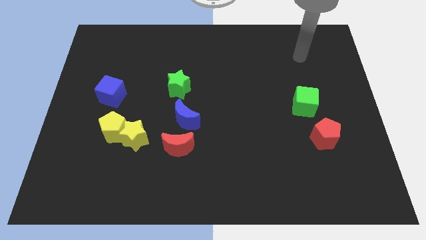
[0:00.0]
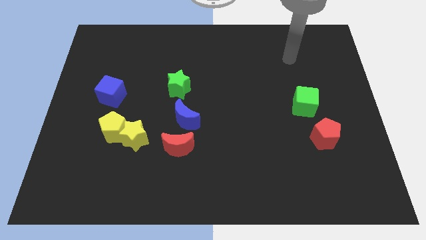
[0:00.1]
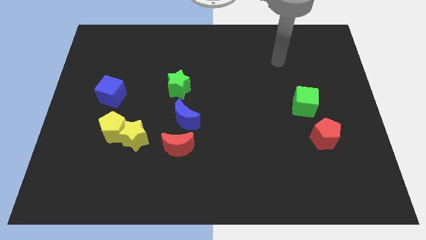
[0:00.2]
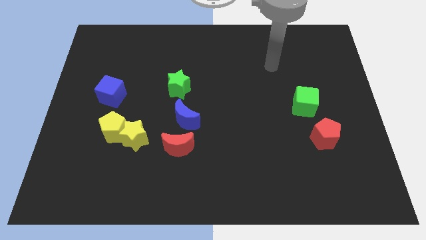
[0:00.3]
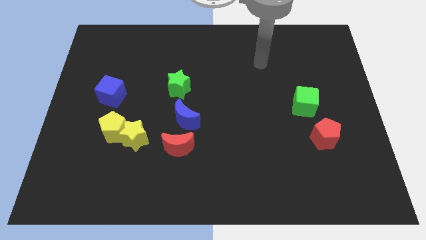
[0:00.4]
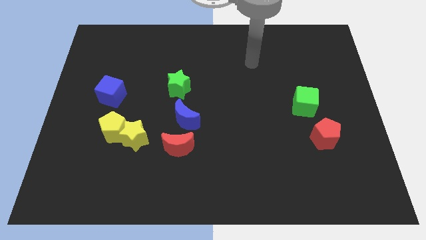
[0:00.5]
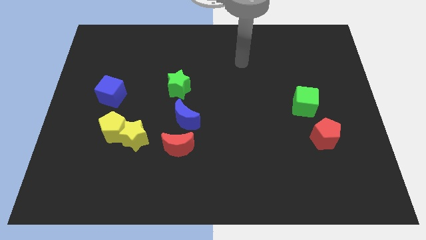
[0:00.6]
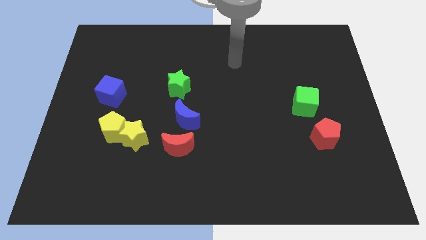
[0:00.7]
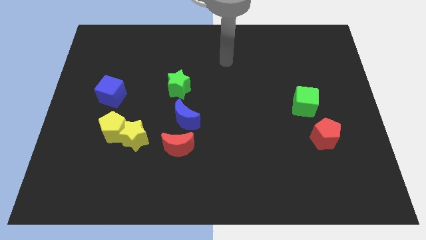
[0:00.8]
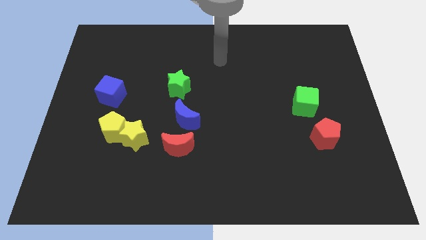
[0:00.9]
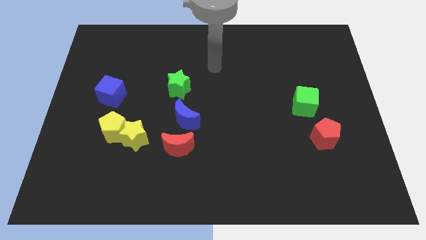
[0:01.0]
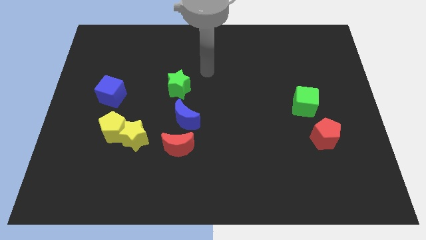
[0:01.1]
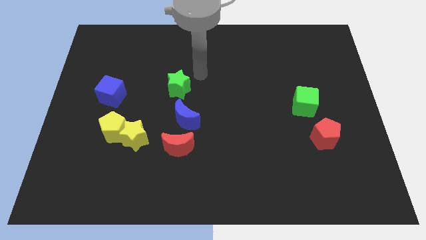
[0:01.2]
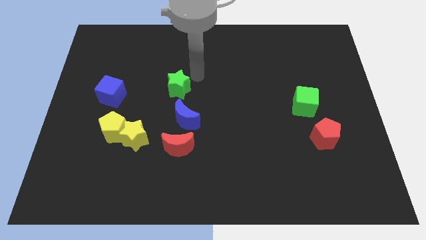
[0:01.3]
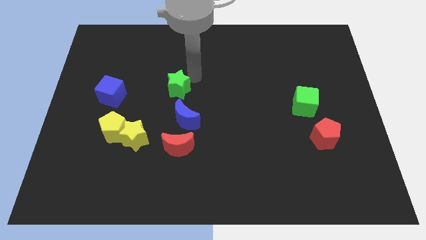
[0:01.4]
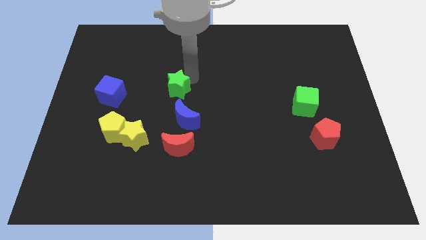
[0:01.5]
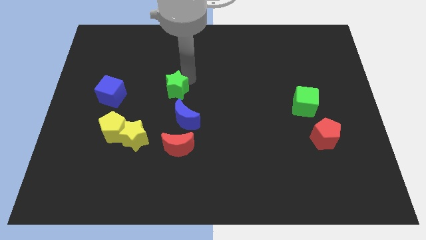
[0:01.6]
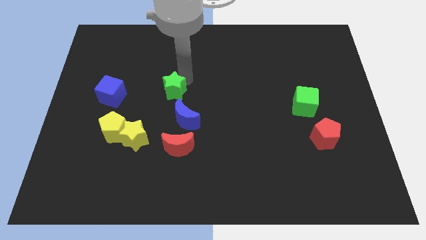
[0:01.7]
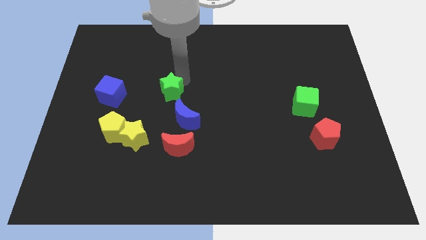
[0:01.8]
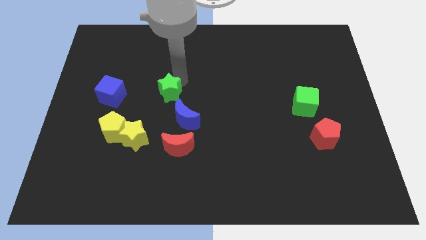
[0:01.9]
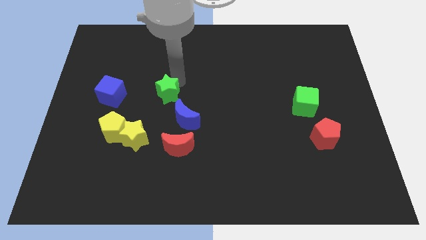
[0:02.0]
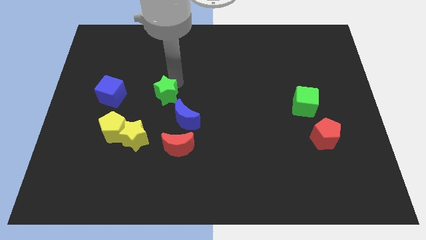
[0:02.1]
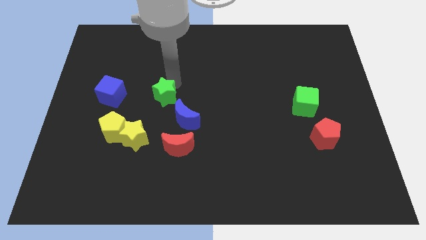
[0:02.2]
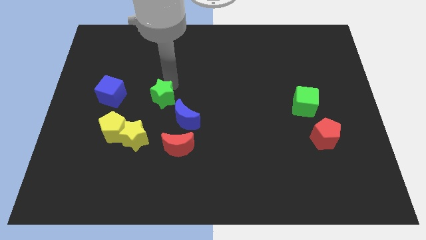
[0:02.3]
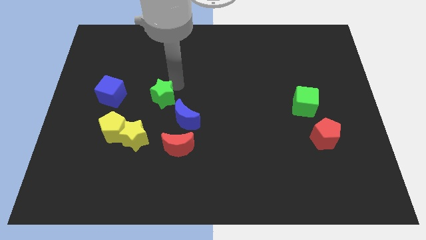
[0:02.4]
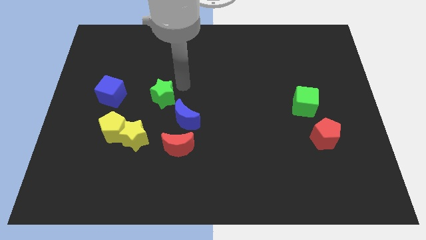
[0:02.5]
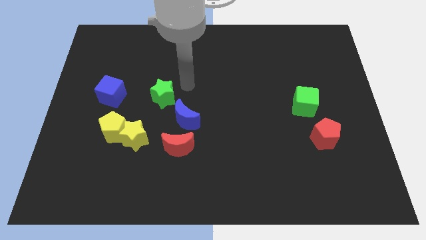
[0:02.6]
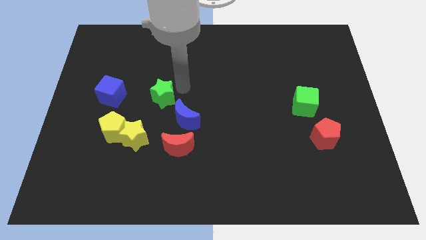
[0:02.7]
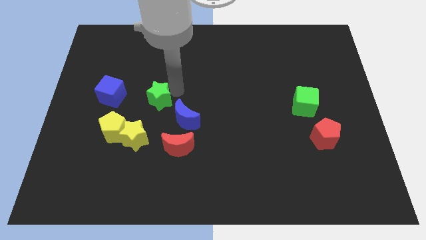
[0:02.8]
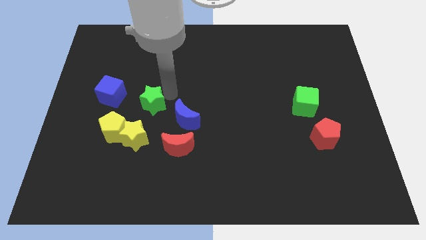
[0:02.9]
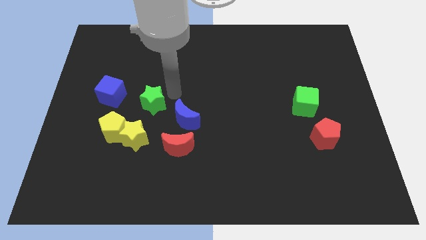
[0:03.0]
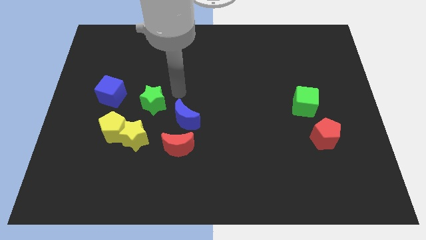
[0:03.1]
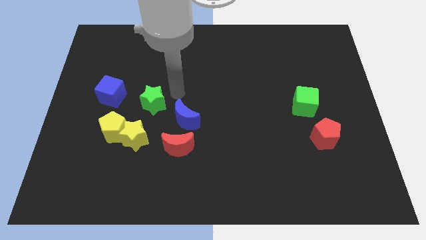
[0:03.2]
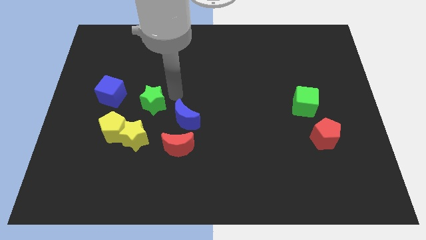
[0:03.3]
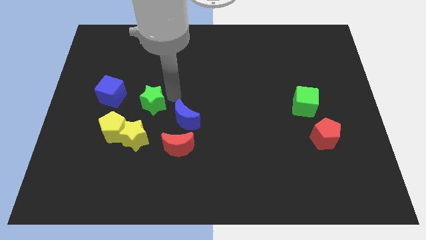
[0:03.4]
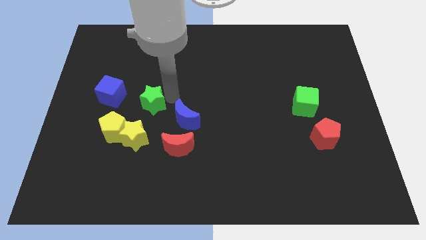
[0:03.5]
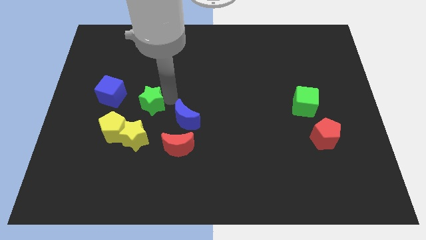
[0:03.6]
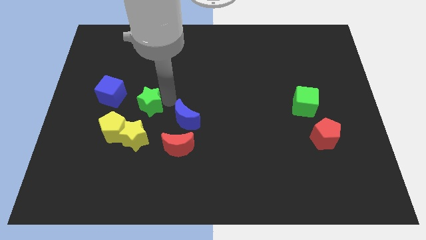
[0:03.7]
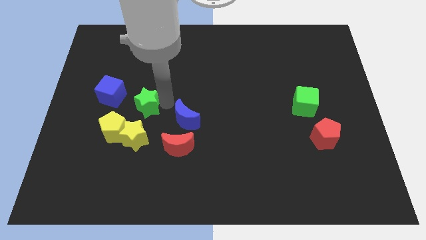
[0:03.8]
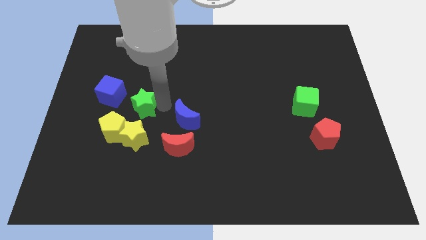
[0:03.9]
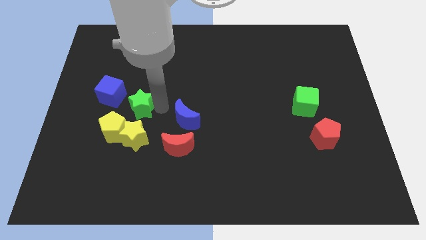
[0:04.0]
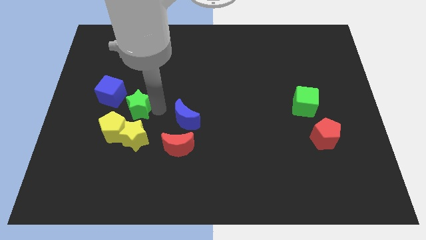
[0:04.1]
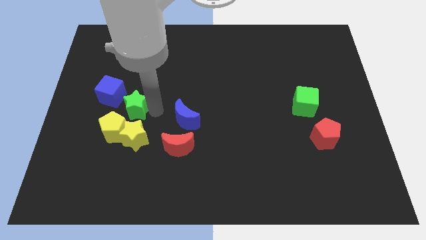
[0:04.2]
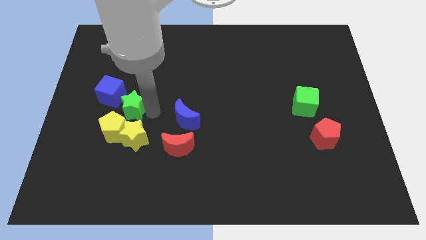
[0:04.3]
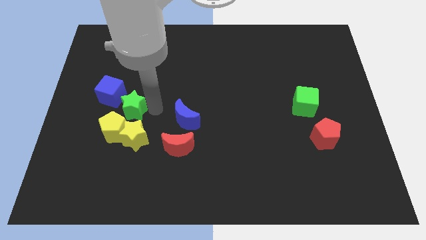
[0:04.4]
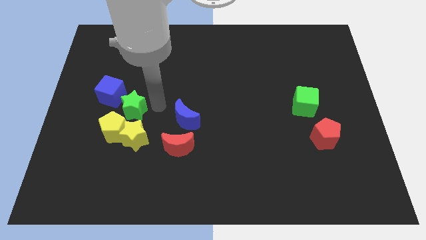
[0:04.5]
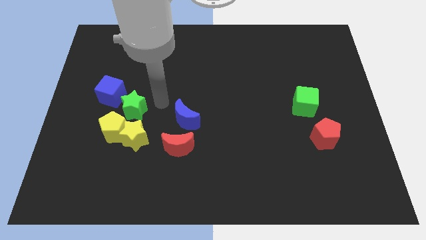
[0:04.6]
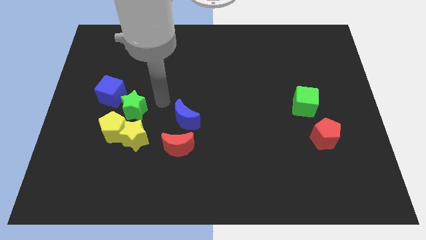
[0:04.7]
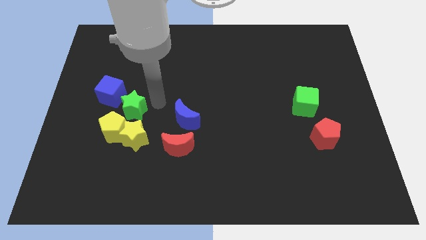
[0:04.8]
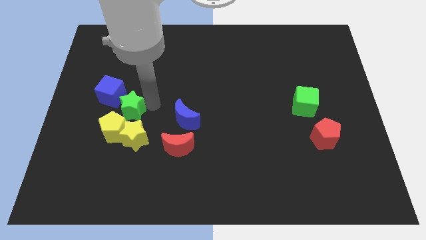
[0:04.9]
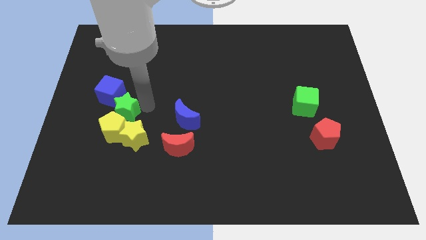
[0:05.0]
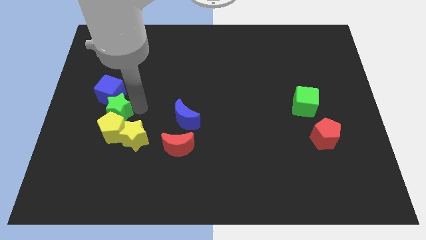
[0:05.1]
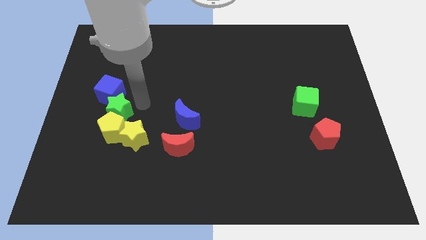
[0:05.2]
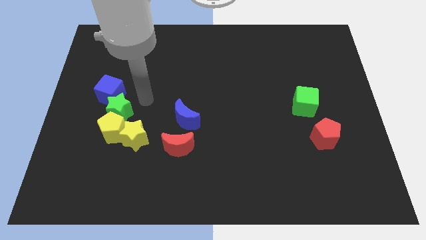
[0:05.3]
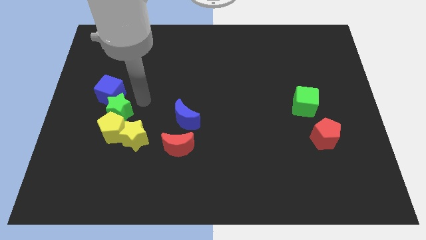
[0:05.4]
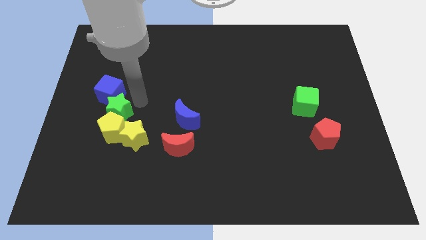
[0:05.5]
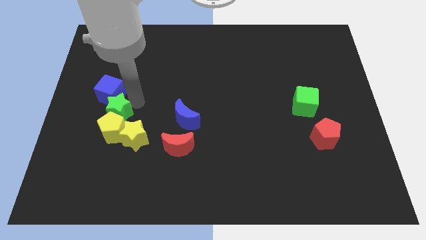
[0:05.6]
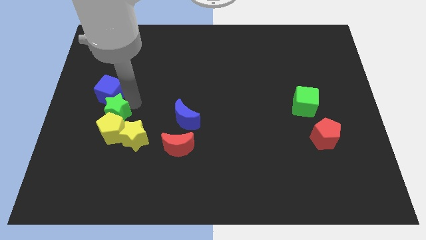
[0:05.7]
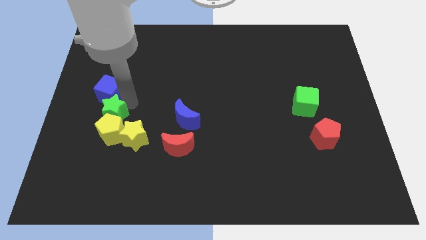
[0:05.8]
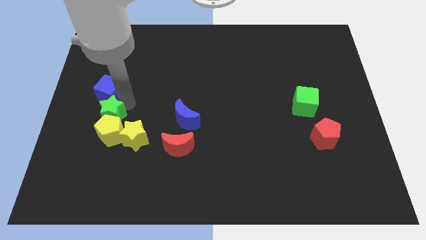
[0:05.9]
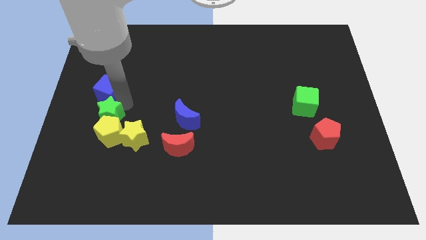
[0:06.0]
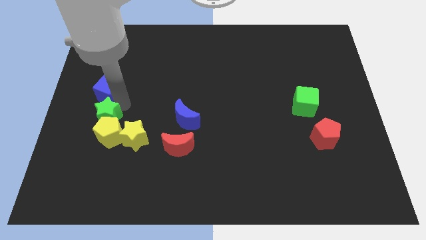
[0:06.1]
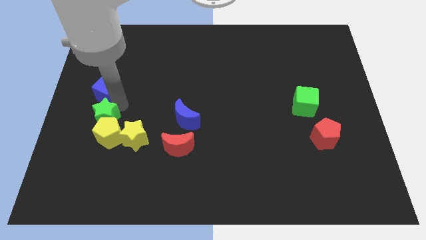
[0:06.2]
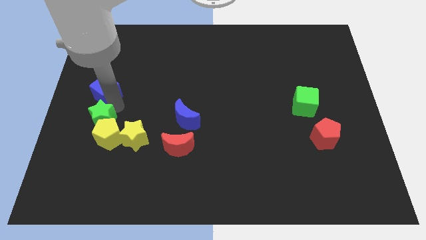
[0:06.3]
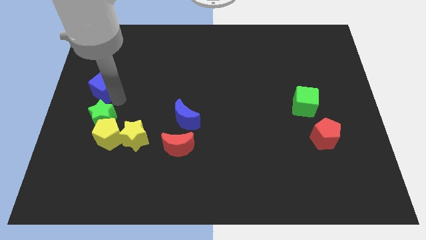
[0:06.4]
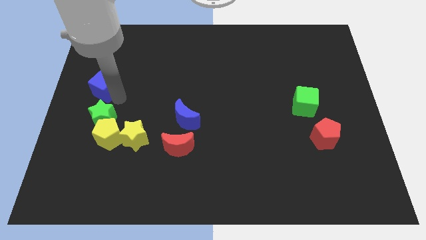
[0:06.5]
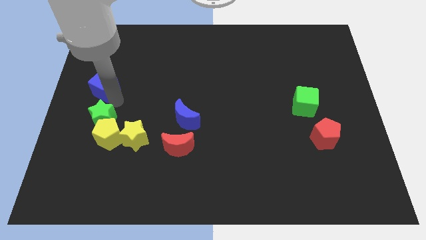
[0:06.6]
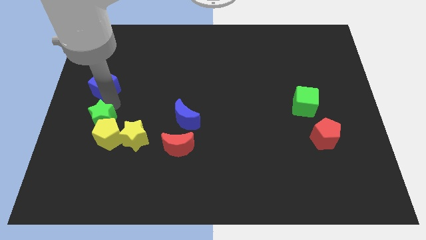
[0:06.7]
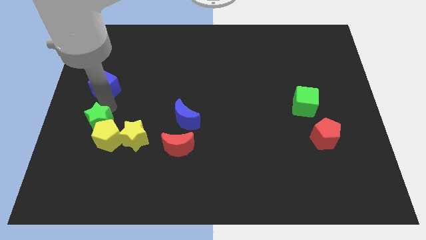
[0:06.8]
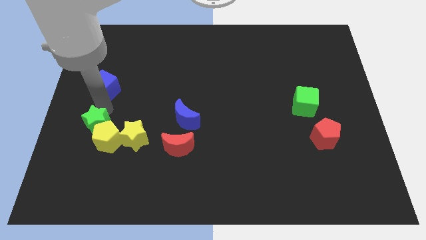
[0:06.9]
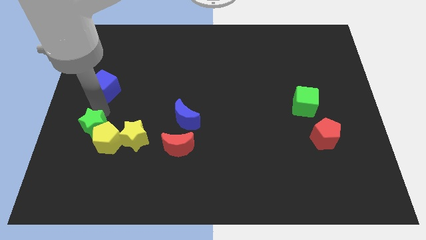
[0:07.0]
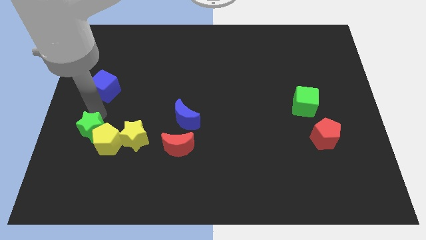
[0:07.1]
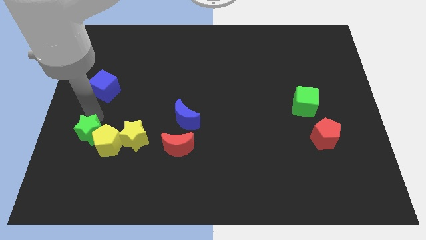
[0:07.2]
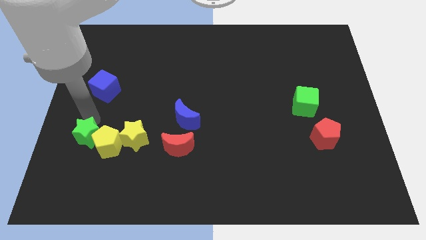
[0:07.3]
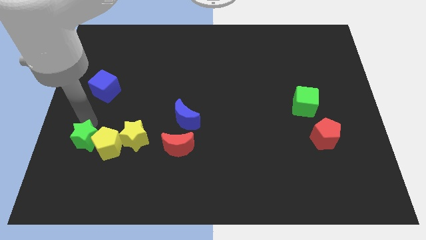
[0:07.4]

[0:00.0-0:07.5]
put the green star to the bottom left side of the yellow pentagon

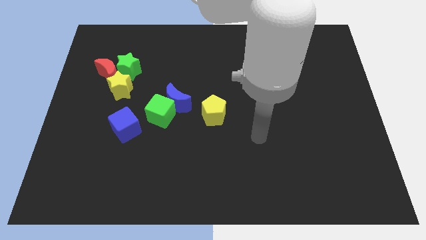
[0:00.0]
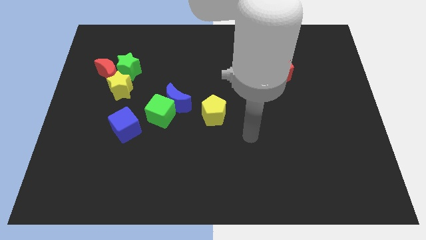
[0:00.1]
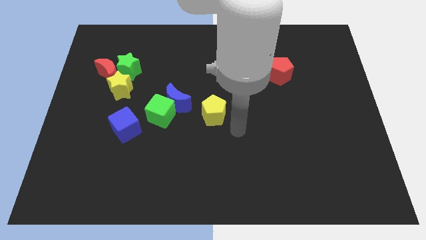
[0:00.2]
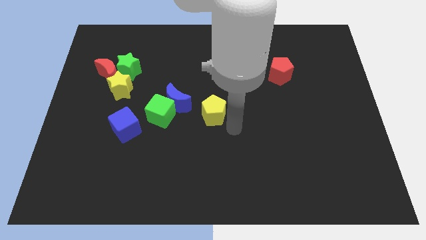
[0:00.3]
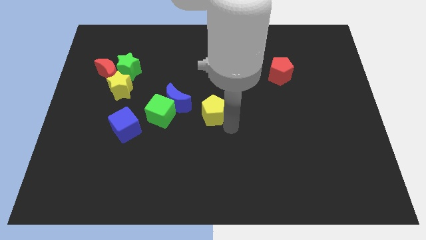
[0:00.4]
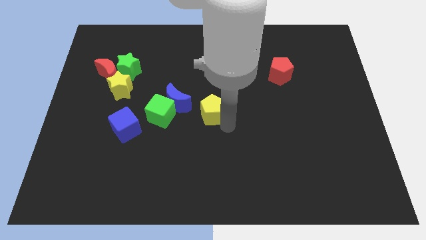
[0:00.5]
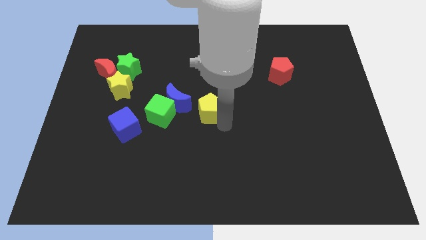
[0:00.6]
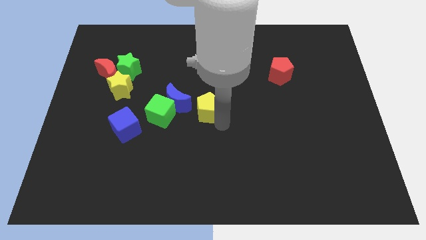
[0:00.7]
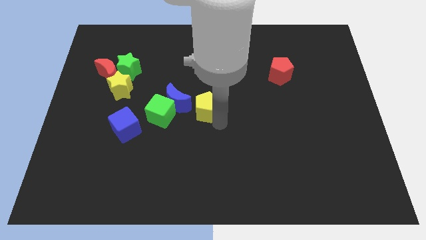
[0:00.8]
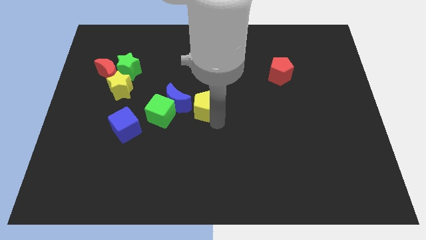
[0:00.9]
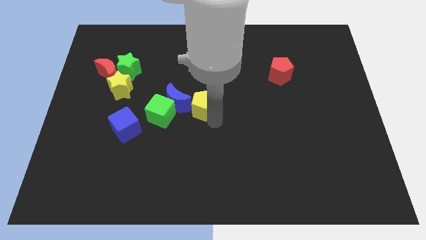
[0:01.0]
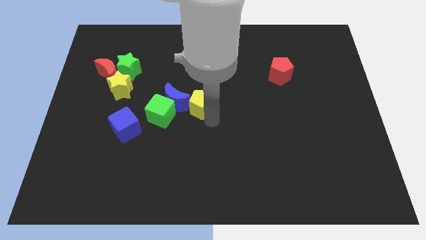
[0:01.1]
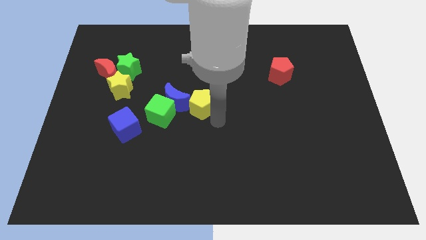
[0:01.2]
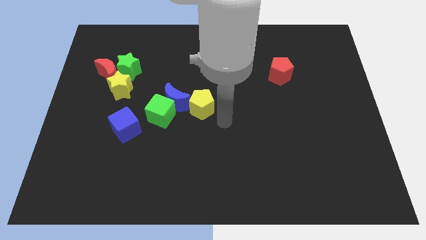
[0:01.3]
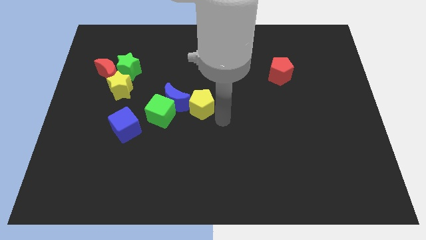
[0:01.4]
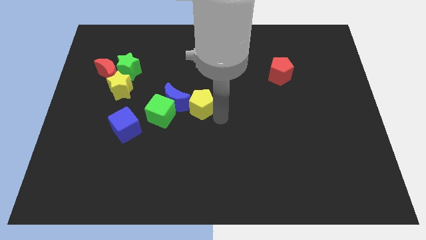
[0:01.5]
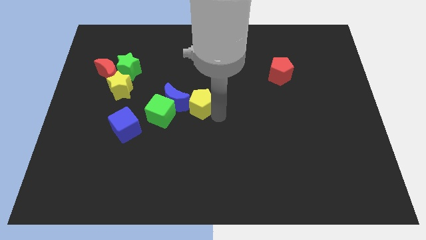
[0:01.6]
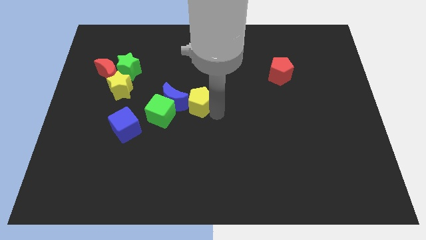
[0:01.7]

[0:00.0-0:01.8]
put the yellow pentagon diagonally up and to the right of the green cube
